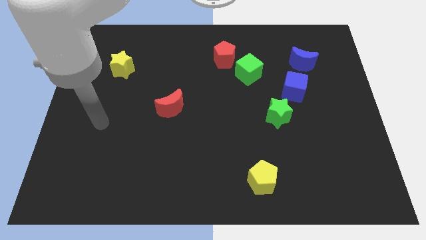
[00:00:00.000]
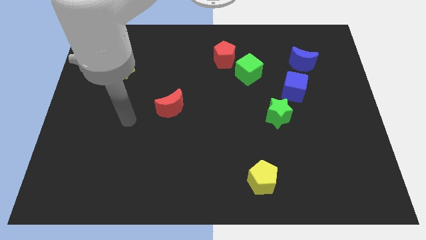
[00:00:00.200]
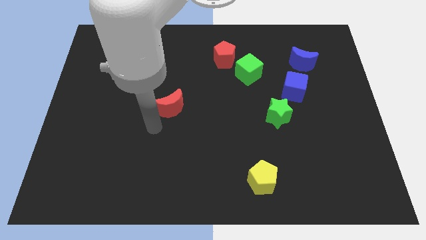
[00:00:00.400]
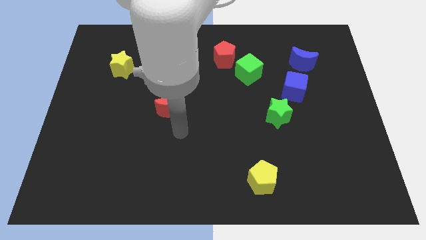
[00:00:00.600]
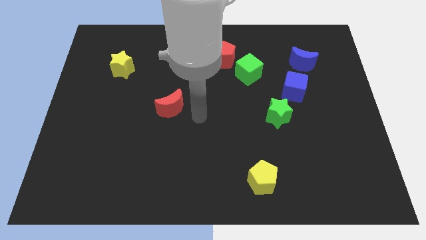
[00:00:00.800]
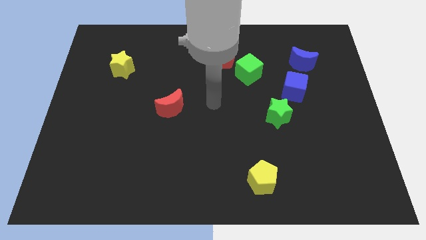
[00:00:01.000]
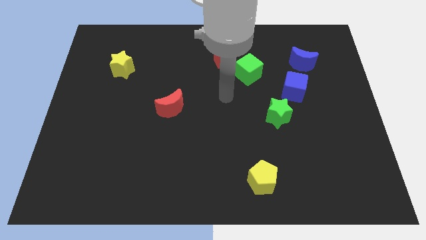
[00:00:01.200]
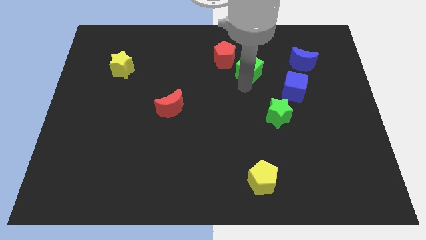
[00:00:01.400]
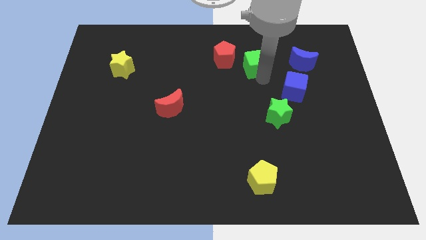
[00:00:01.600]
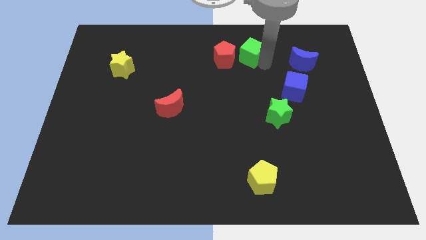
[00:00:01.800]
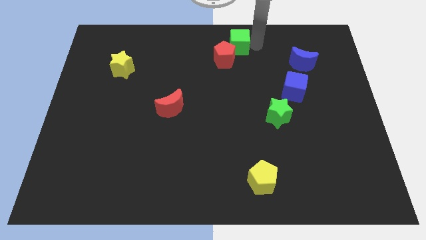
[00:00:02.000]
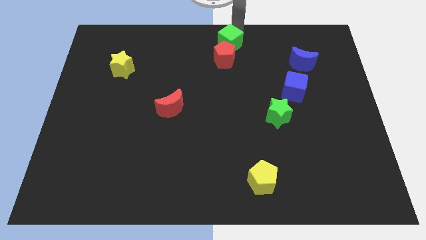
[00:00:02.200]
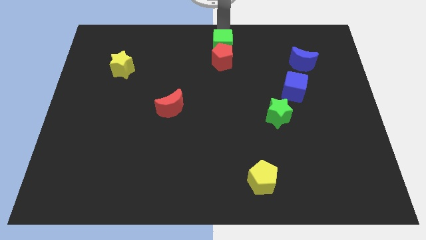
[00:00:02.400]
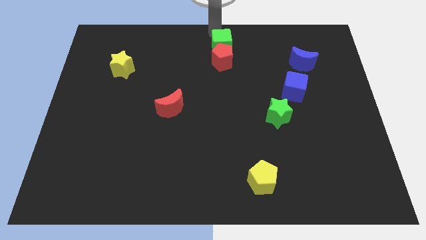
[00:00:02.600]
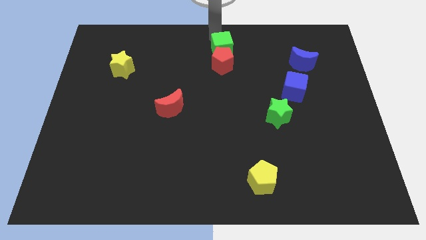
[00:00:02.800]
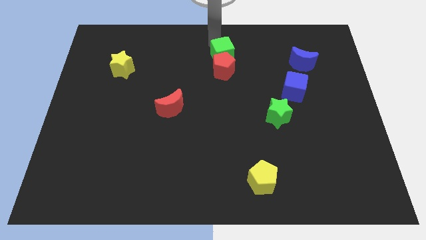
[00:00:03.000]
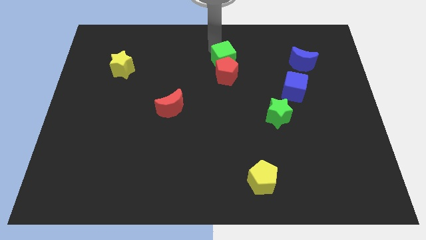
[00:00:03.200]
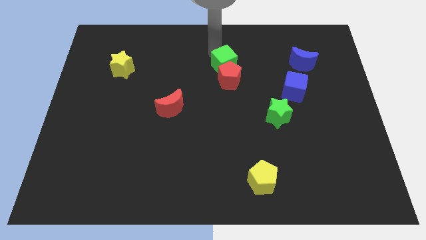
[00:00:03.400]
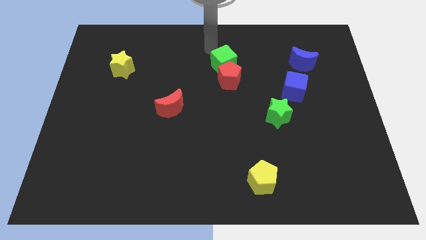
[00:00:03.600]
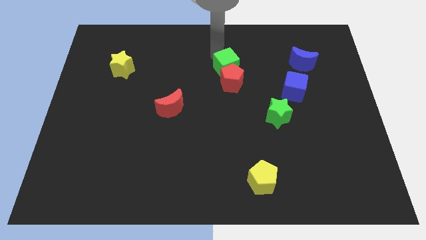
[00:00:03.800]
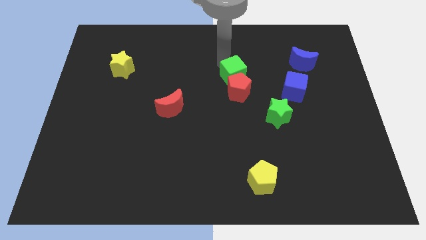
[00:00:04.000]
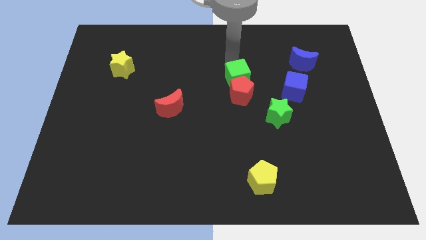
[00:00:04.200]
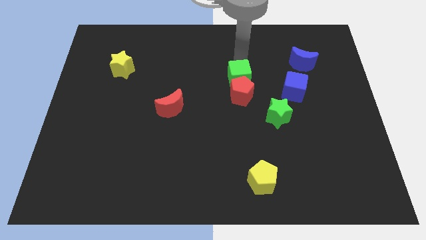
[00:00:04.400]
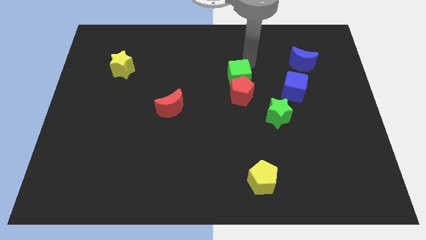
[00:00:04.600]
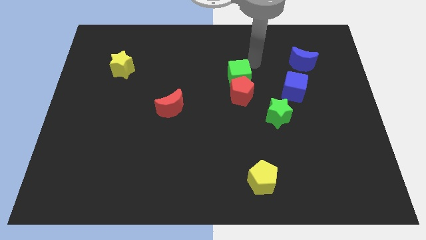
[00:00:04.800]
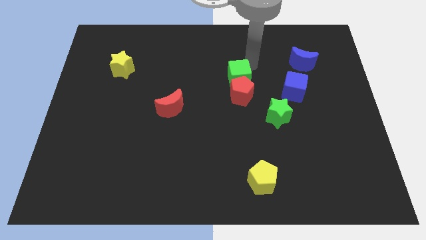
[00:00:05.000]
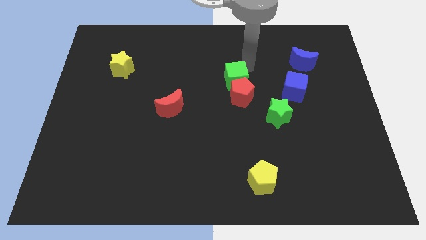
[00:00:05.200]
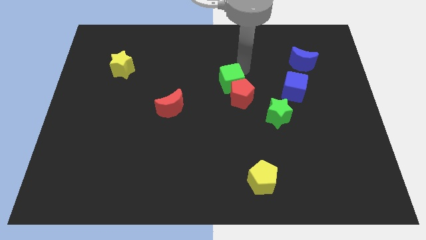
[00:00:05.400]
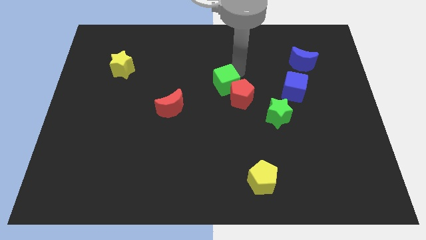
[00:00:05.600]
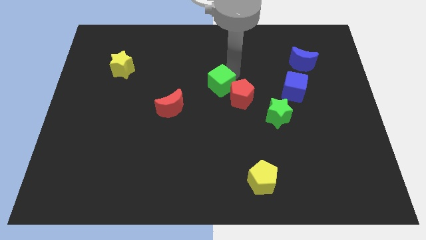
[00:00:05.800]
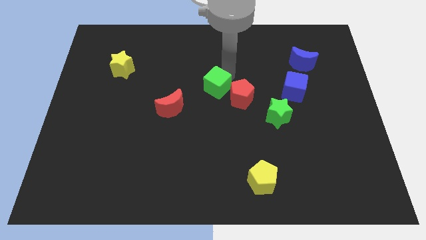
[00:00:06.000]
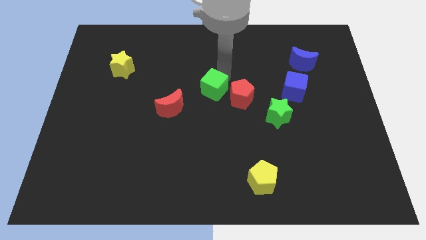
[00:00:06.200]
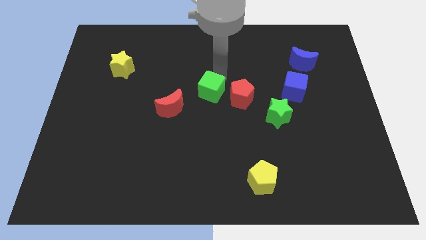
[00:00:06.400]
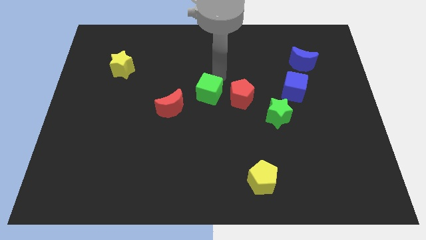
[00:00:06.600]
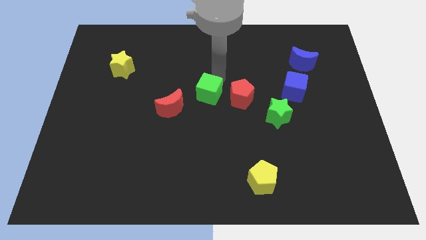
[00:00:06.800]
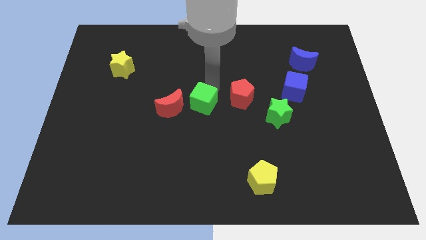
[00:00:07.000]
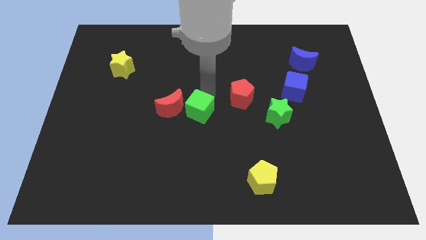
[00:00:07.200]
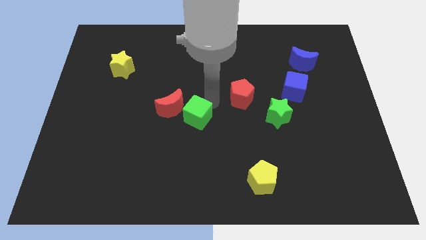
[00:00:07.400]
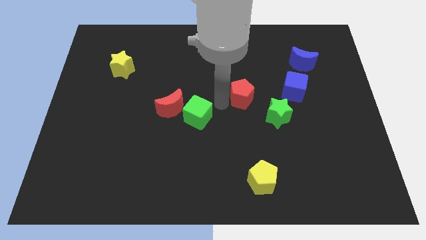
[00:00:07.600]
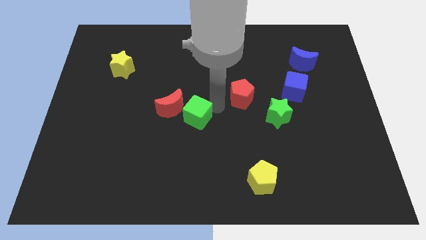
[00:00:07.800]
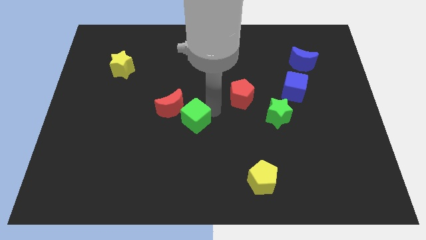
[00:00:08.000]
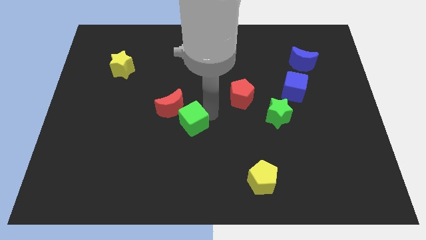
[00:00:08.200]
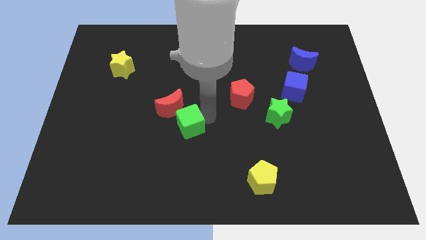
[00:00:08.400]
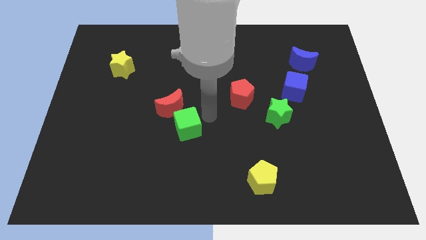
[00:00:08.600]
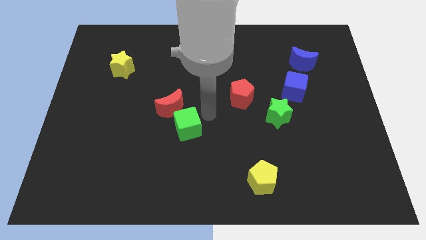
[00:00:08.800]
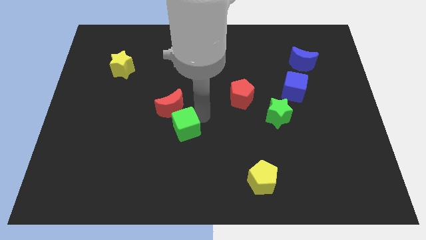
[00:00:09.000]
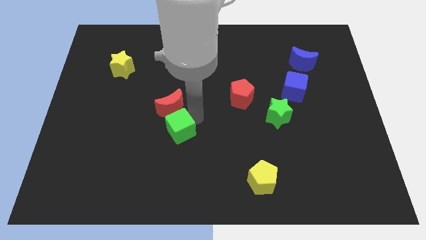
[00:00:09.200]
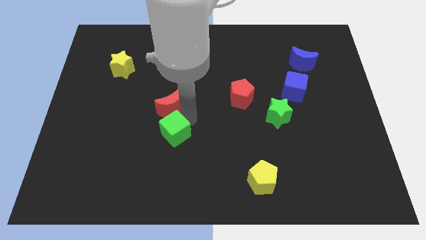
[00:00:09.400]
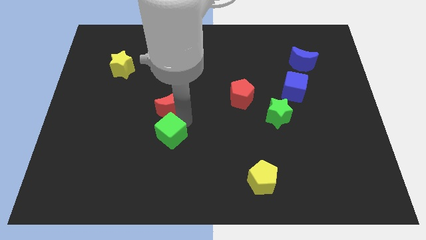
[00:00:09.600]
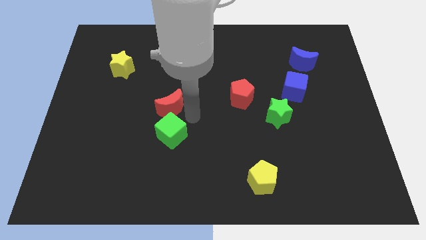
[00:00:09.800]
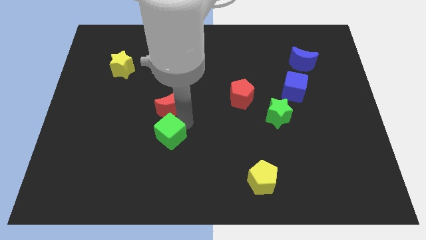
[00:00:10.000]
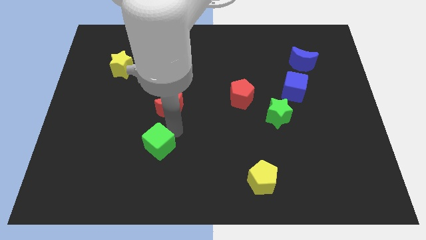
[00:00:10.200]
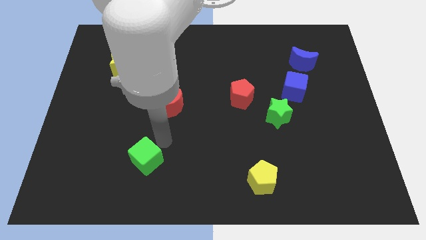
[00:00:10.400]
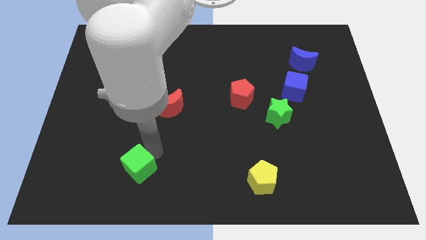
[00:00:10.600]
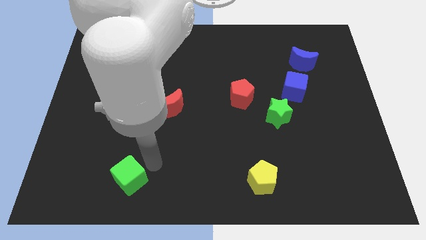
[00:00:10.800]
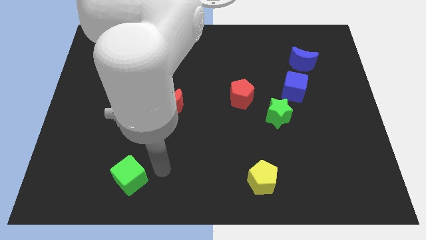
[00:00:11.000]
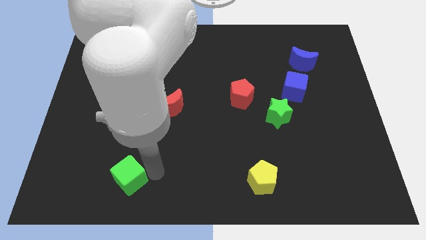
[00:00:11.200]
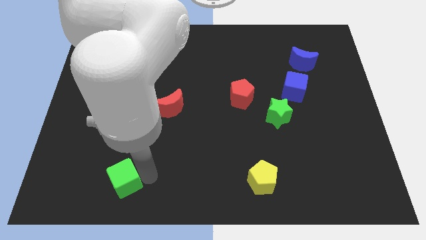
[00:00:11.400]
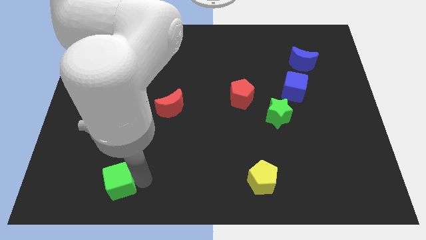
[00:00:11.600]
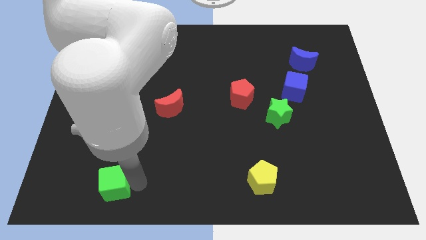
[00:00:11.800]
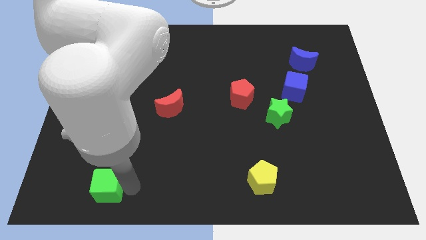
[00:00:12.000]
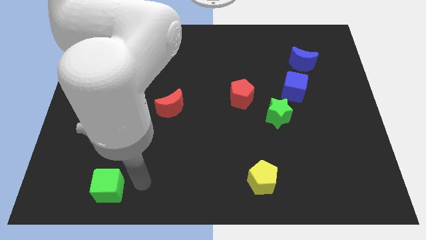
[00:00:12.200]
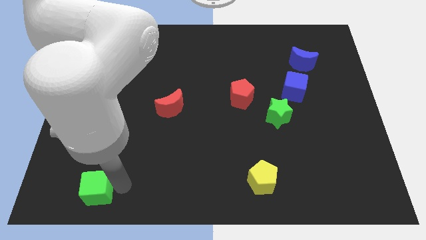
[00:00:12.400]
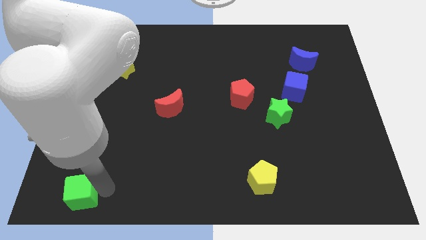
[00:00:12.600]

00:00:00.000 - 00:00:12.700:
put the green cube to the bottom left of the board
